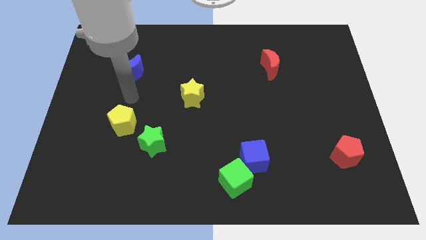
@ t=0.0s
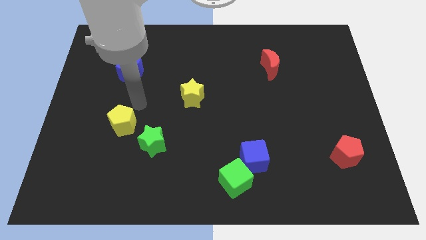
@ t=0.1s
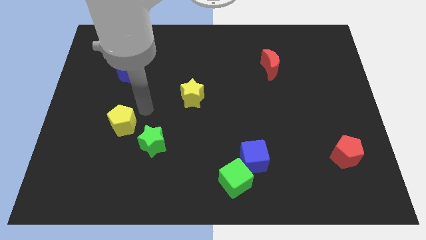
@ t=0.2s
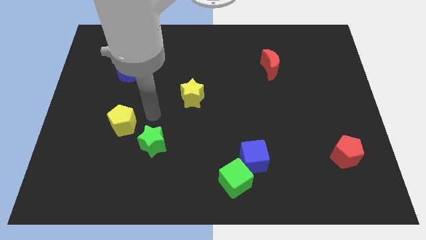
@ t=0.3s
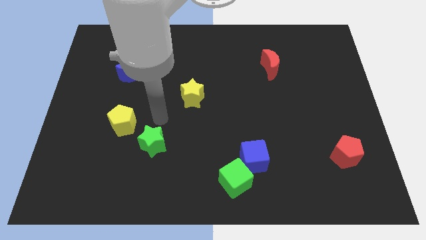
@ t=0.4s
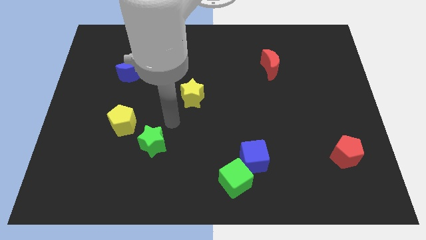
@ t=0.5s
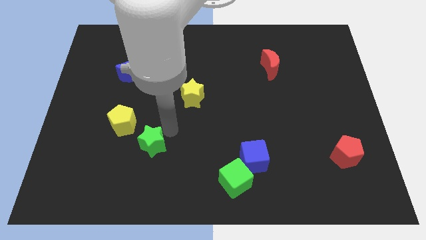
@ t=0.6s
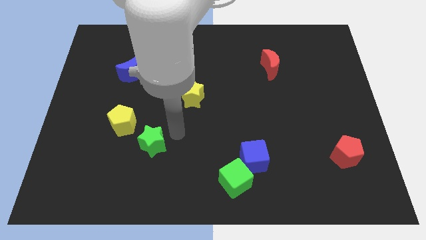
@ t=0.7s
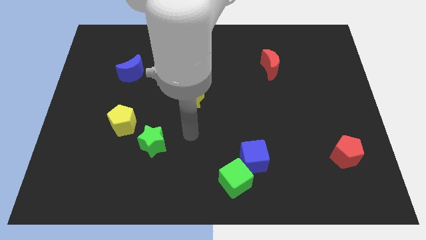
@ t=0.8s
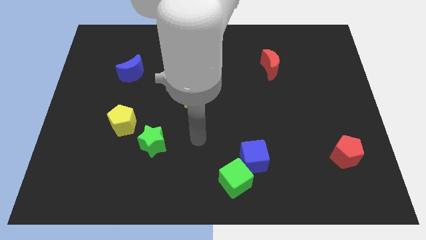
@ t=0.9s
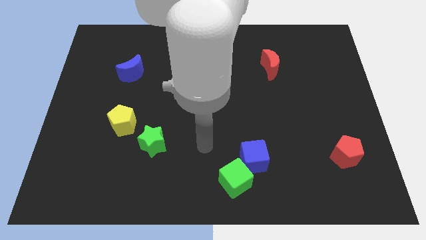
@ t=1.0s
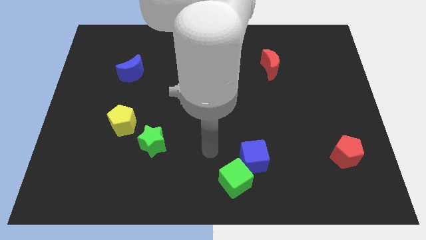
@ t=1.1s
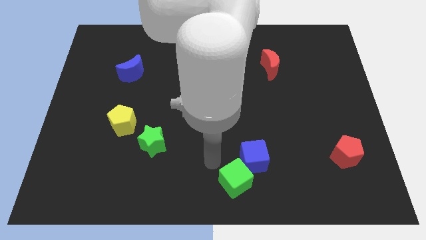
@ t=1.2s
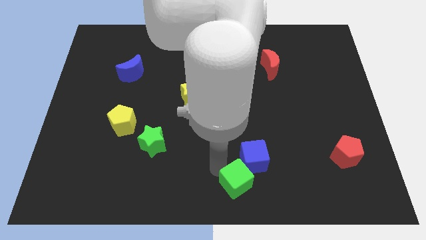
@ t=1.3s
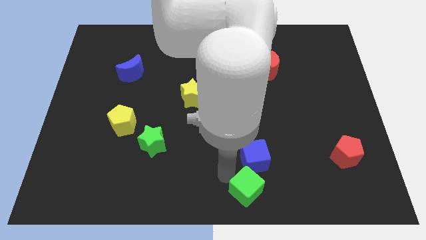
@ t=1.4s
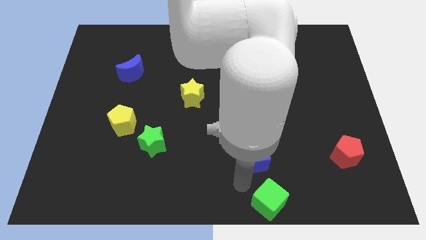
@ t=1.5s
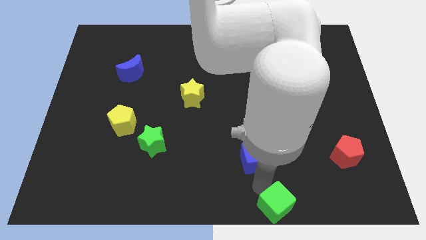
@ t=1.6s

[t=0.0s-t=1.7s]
separate the blue cube from the green cube

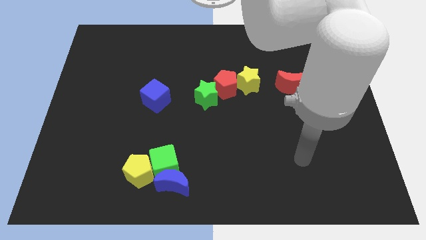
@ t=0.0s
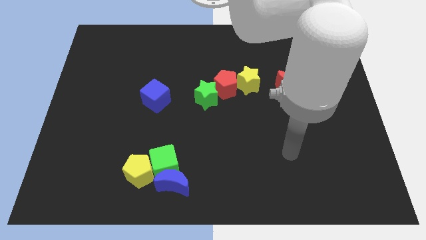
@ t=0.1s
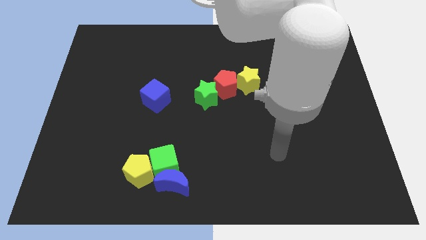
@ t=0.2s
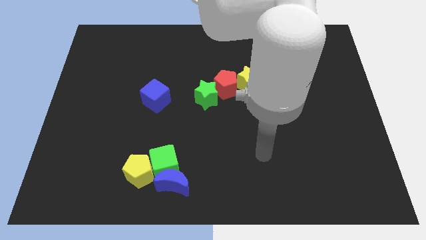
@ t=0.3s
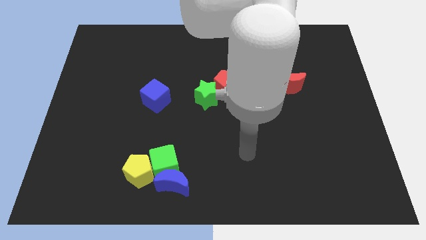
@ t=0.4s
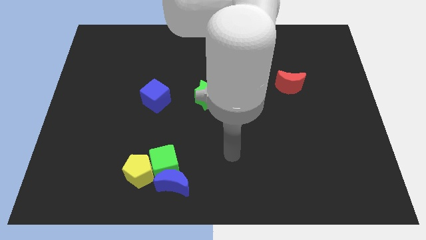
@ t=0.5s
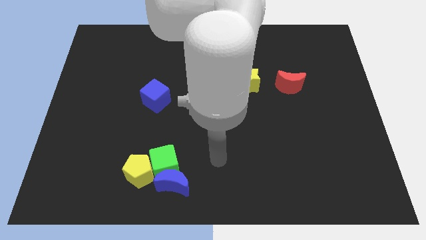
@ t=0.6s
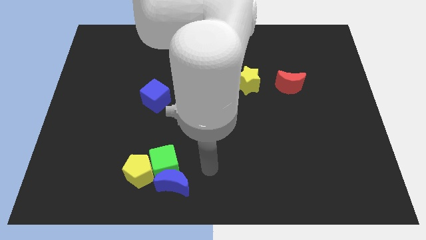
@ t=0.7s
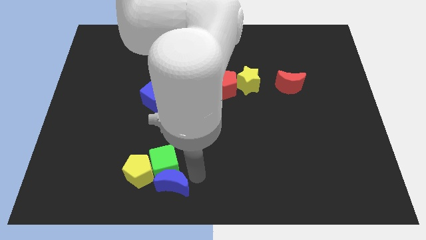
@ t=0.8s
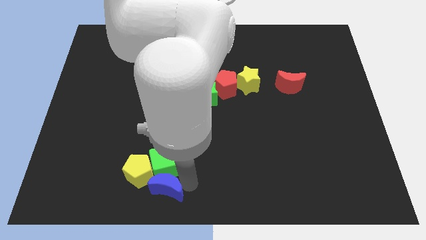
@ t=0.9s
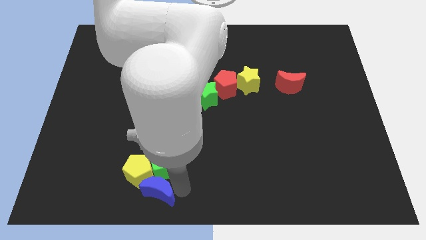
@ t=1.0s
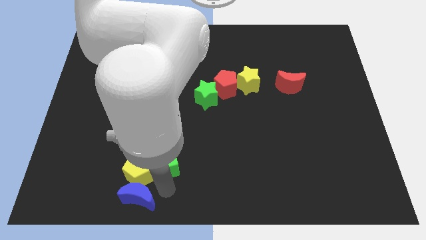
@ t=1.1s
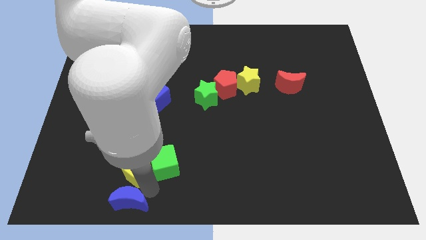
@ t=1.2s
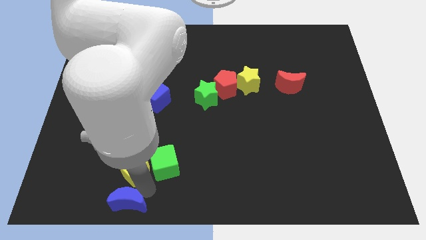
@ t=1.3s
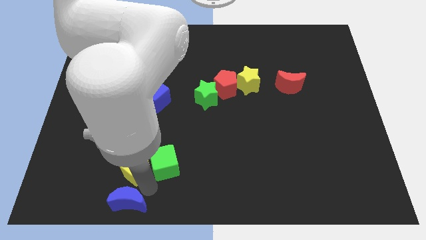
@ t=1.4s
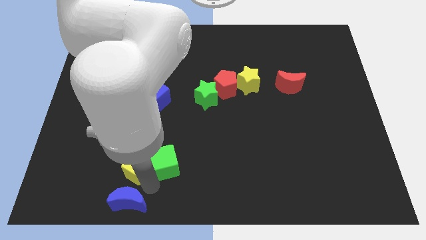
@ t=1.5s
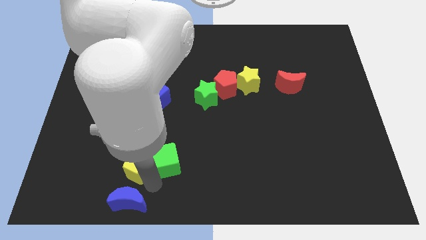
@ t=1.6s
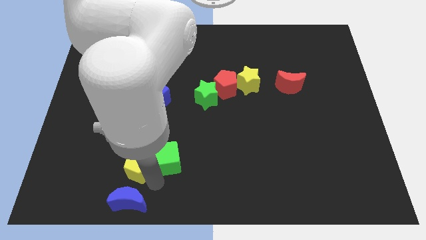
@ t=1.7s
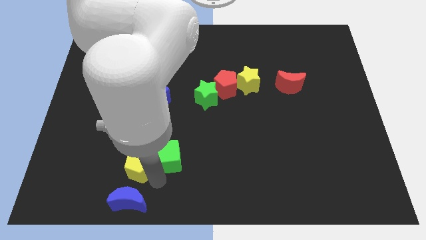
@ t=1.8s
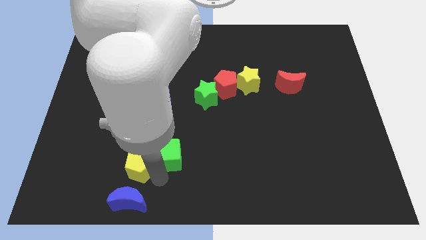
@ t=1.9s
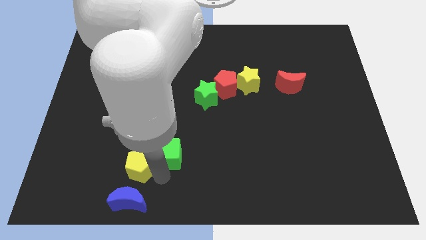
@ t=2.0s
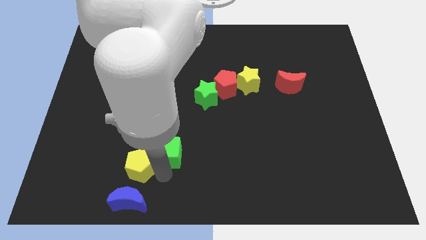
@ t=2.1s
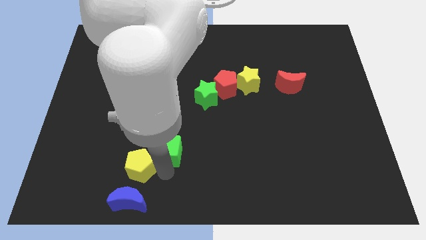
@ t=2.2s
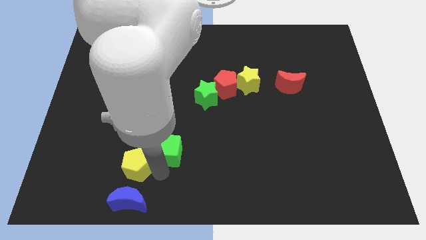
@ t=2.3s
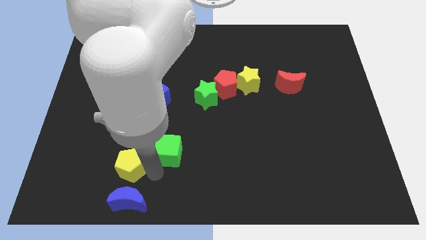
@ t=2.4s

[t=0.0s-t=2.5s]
separate the green cube from the blue moon and yellow pentagon

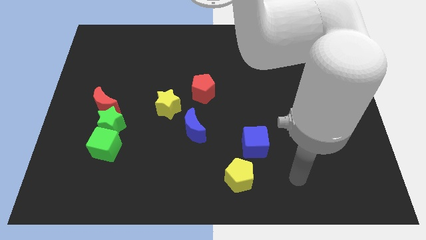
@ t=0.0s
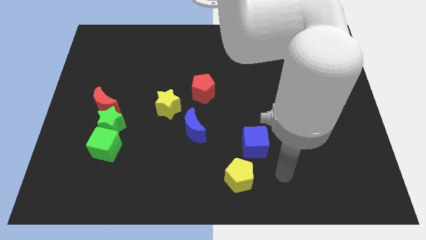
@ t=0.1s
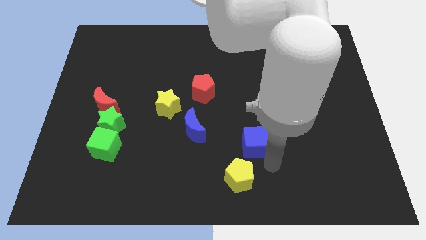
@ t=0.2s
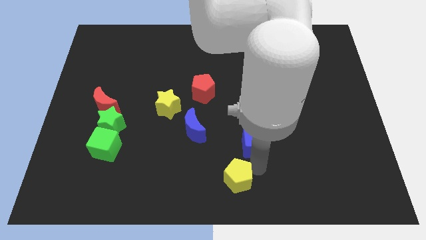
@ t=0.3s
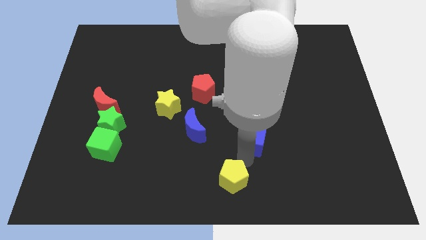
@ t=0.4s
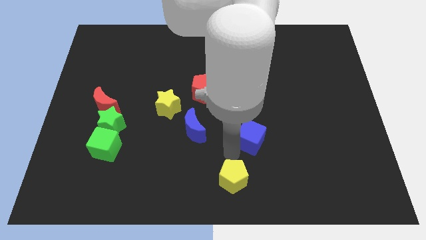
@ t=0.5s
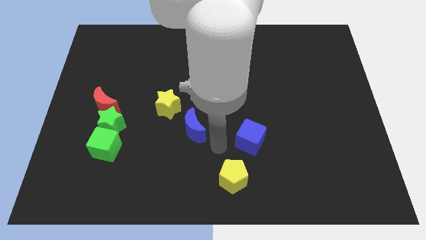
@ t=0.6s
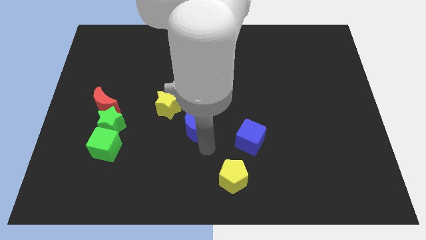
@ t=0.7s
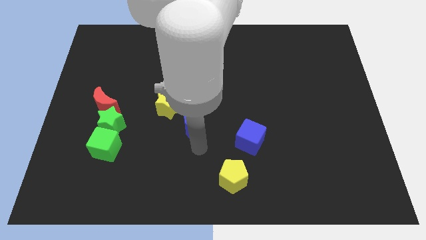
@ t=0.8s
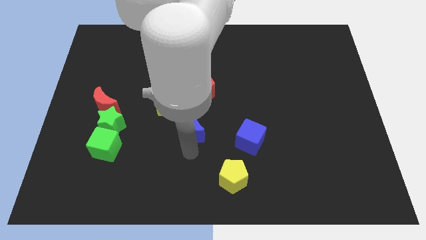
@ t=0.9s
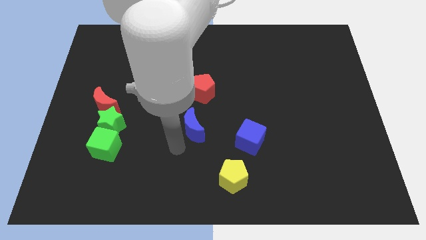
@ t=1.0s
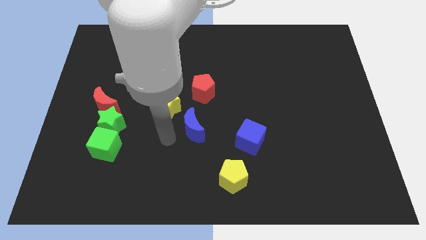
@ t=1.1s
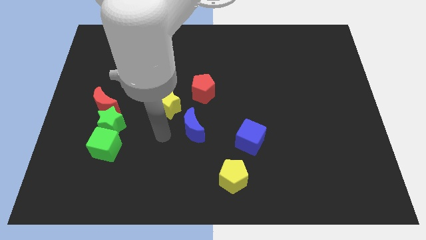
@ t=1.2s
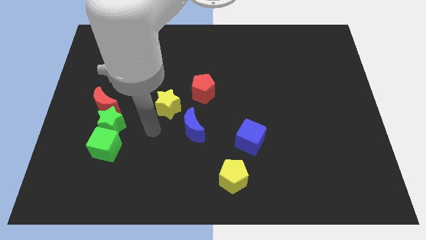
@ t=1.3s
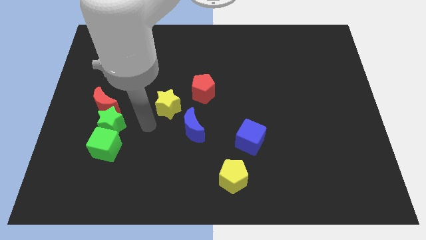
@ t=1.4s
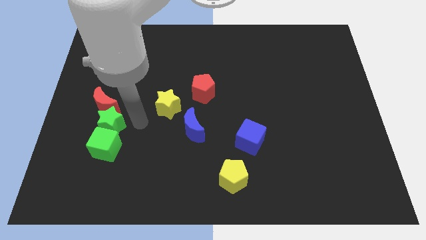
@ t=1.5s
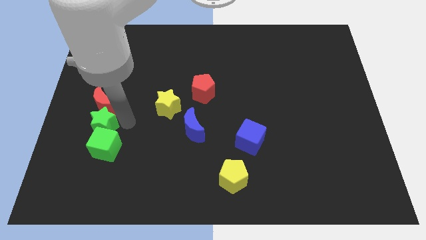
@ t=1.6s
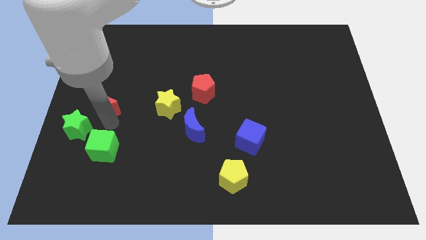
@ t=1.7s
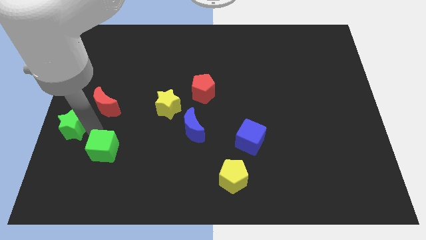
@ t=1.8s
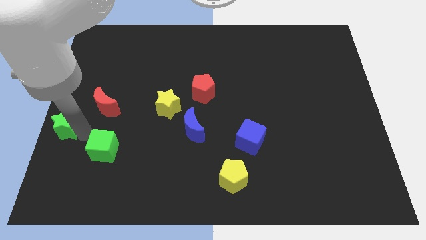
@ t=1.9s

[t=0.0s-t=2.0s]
move the green cube away from the green star

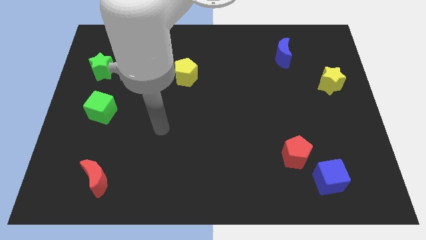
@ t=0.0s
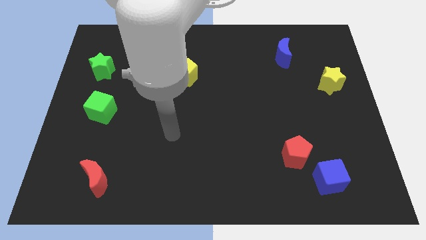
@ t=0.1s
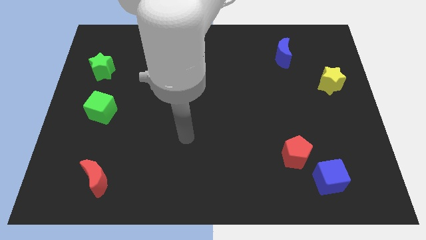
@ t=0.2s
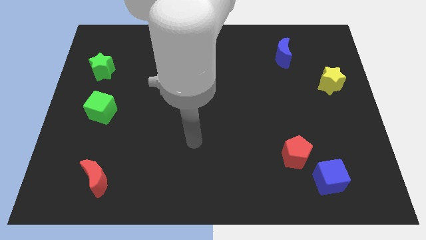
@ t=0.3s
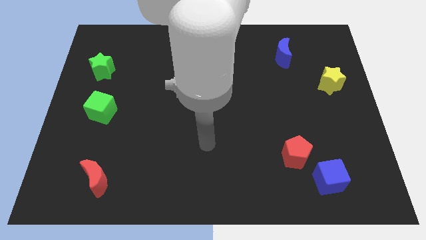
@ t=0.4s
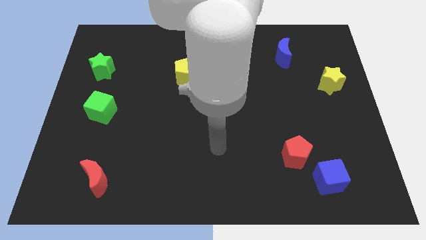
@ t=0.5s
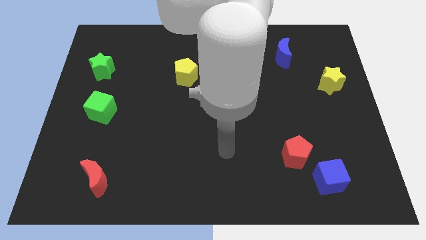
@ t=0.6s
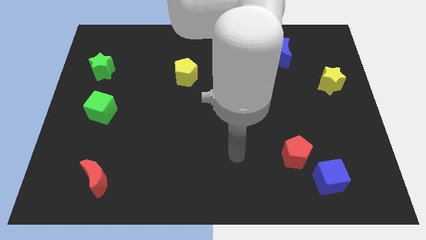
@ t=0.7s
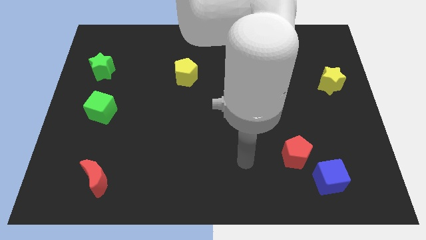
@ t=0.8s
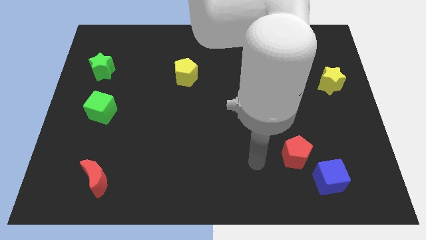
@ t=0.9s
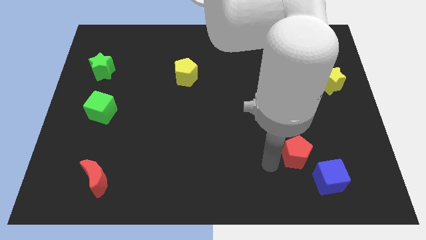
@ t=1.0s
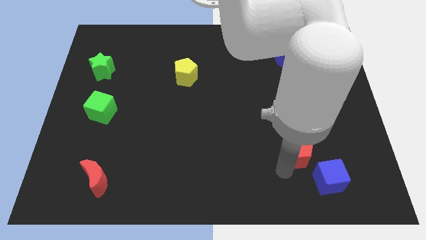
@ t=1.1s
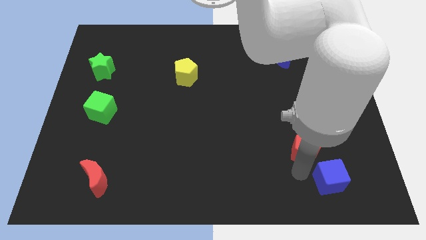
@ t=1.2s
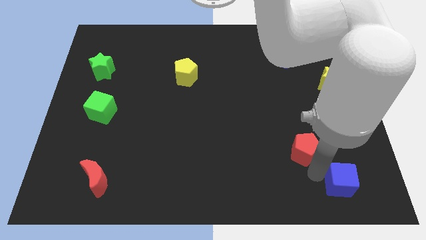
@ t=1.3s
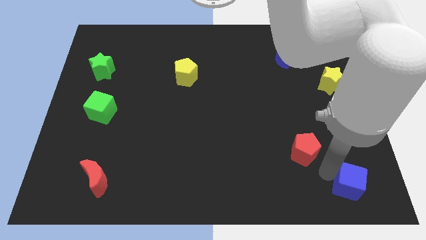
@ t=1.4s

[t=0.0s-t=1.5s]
move the red pentagon away from the blue cube

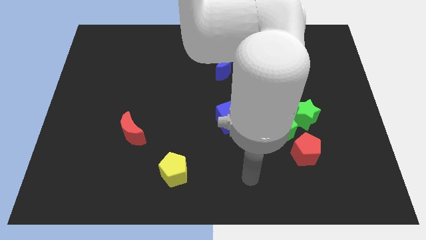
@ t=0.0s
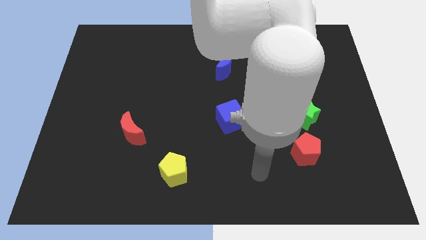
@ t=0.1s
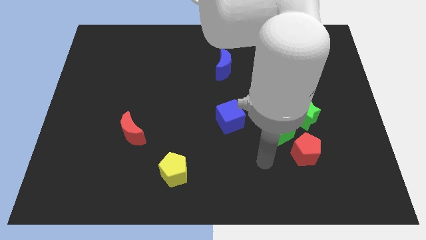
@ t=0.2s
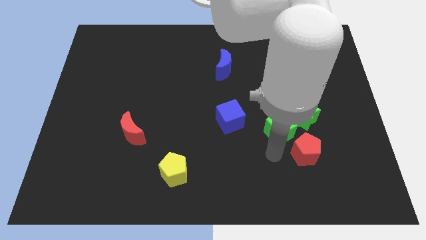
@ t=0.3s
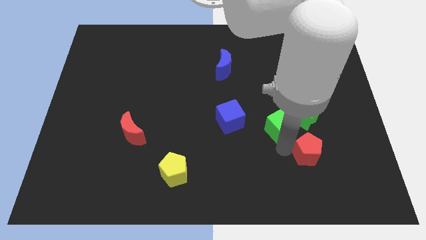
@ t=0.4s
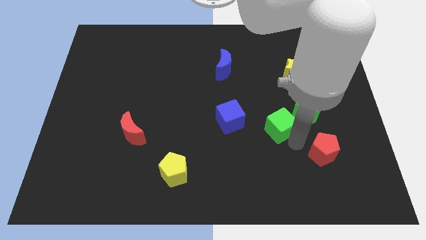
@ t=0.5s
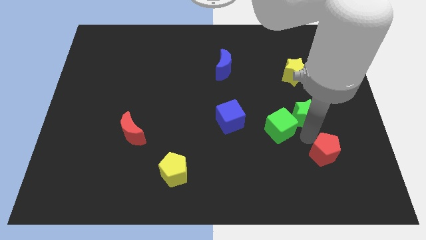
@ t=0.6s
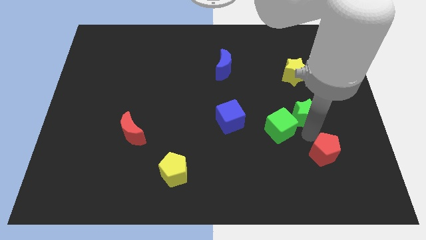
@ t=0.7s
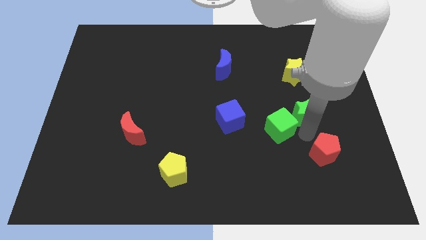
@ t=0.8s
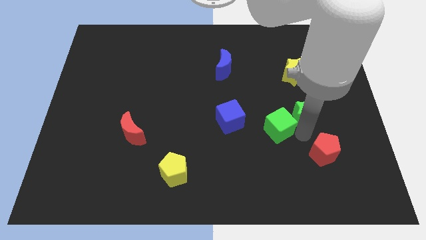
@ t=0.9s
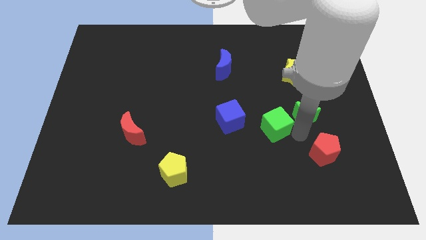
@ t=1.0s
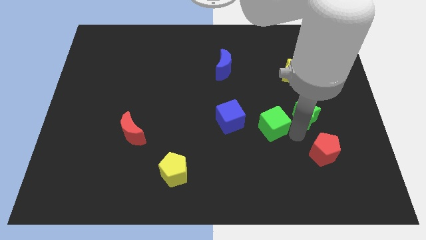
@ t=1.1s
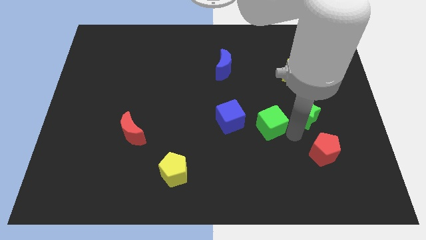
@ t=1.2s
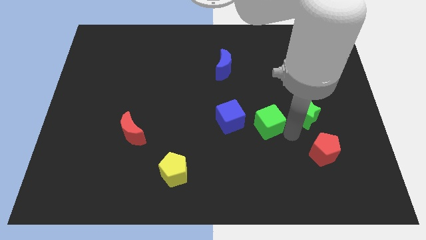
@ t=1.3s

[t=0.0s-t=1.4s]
pull the green cube apart from the green star and red pentagon

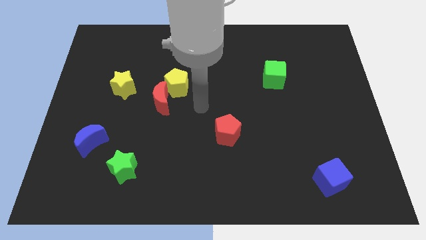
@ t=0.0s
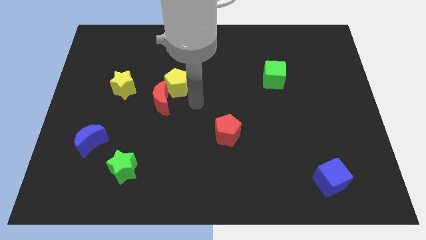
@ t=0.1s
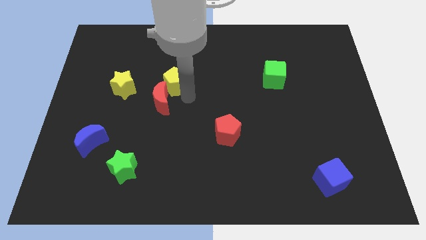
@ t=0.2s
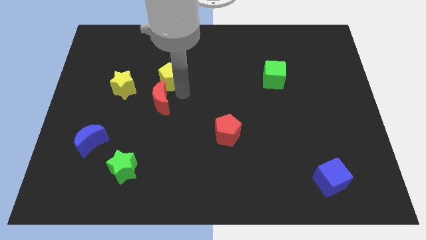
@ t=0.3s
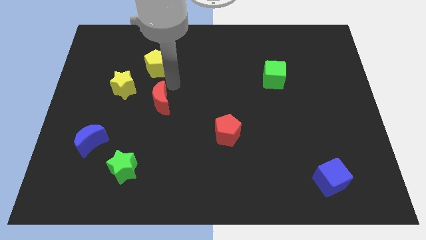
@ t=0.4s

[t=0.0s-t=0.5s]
separate the red moon from the yellow pentagon
